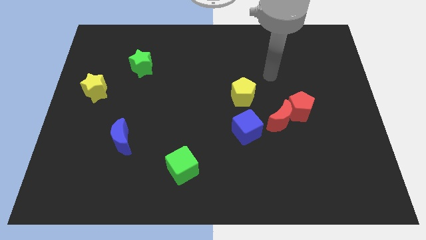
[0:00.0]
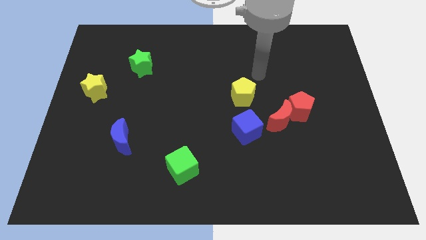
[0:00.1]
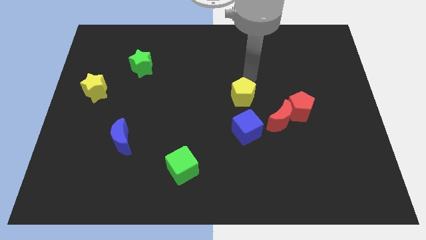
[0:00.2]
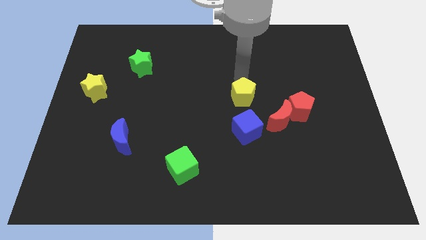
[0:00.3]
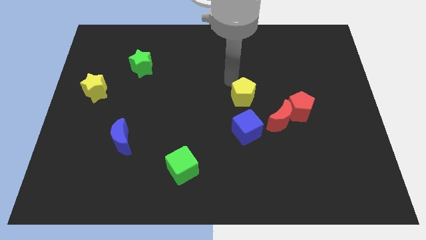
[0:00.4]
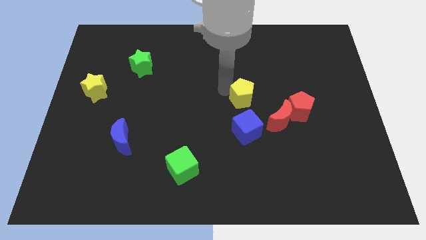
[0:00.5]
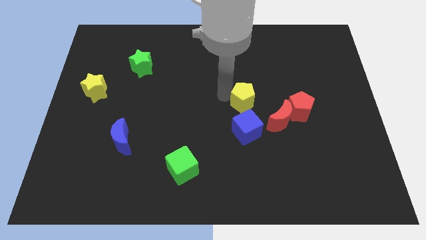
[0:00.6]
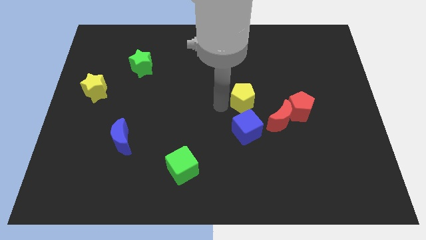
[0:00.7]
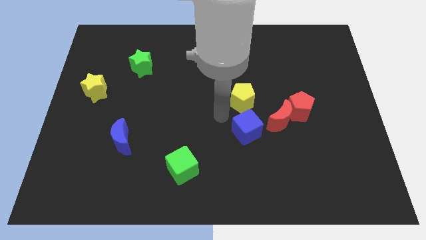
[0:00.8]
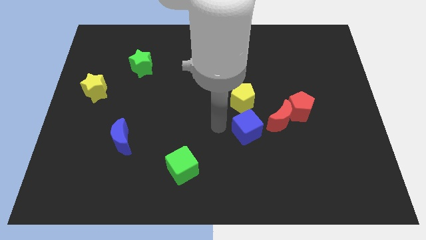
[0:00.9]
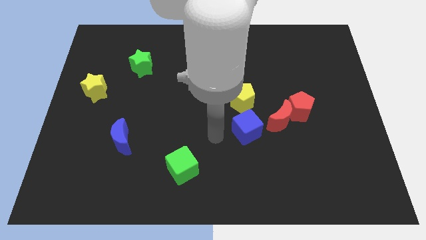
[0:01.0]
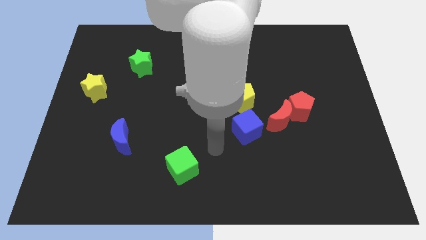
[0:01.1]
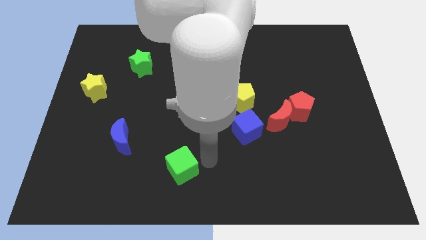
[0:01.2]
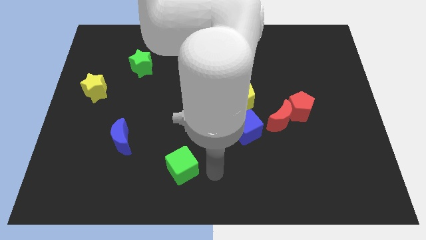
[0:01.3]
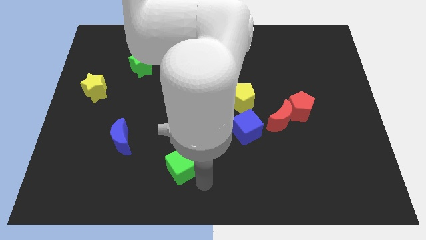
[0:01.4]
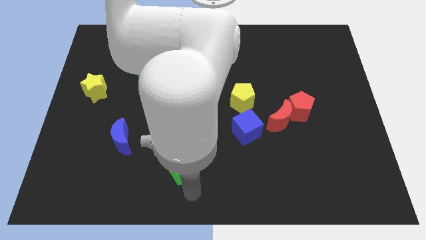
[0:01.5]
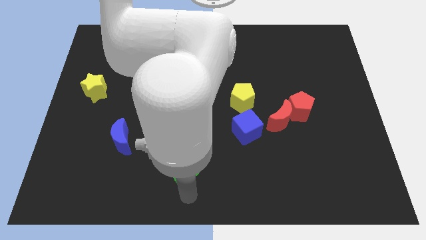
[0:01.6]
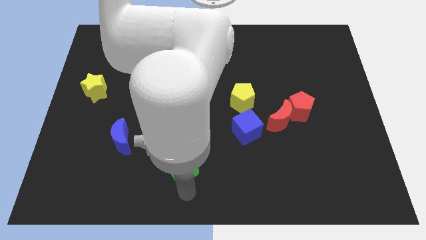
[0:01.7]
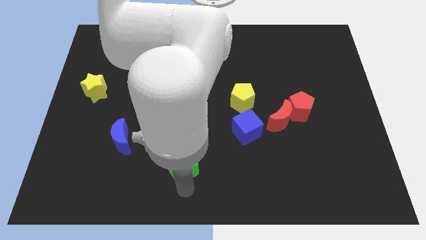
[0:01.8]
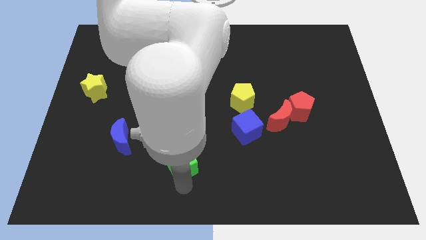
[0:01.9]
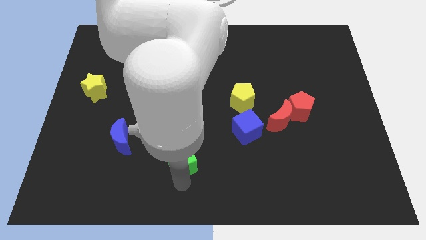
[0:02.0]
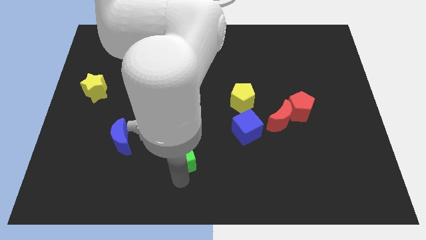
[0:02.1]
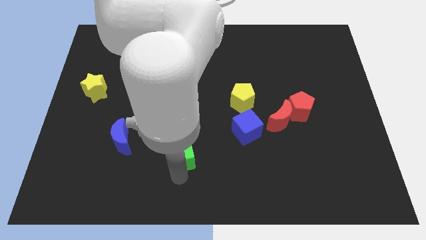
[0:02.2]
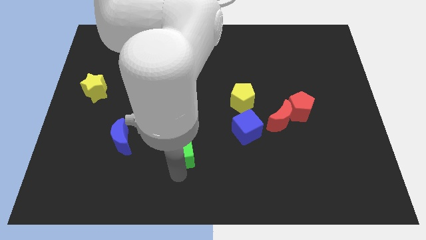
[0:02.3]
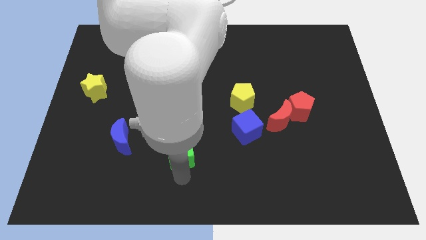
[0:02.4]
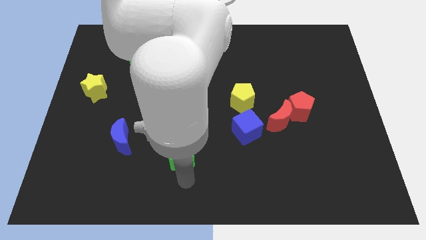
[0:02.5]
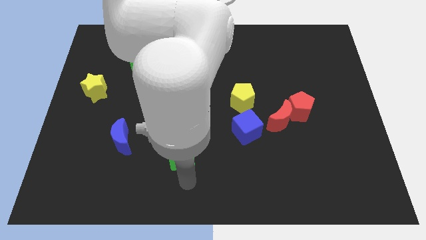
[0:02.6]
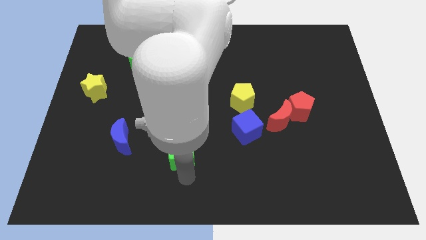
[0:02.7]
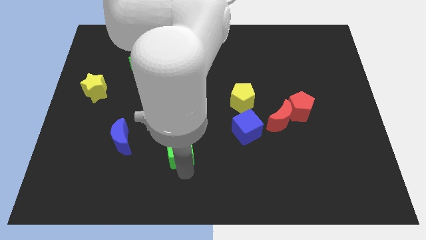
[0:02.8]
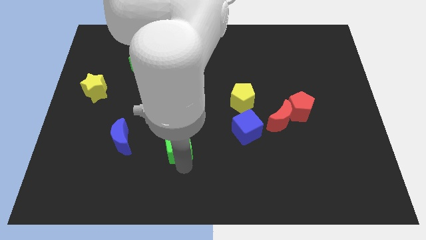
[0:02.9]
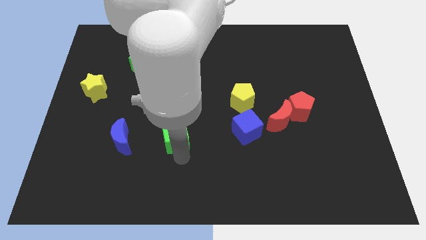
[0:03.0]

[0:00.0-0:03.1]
slightly move the green cube upwards

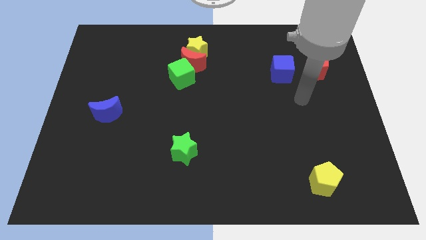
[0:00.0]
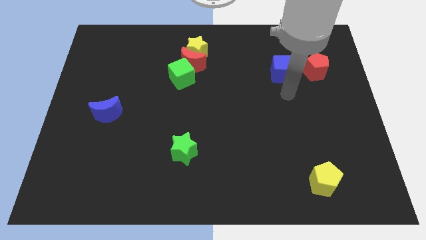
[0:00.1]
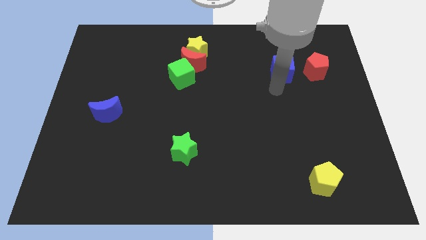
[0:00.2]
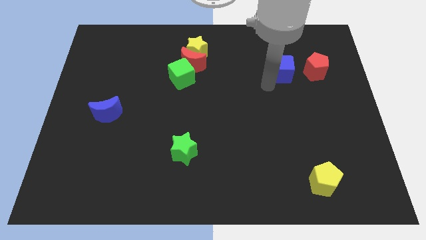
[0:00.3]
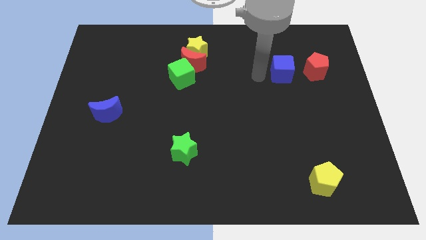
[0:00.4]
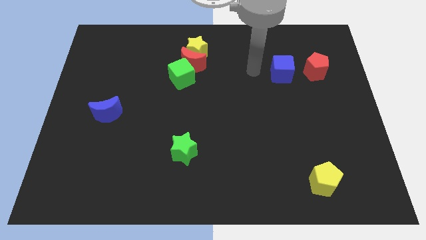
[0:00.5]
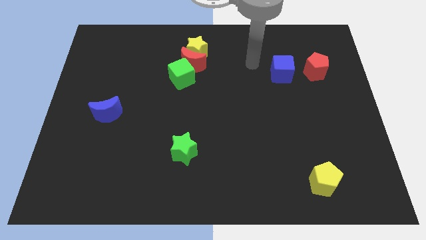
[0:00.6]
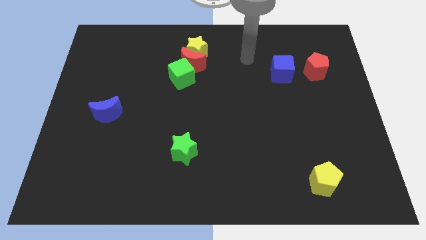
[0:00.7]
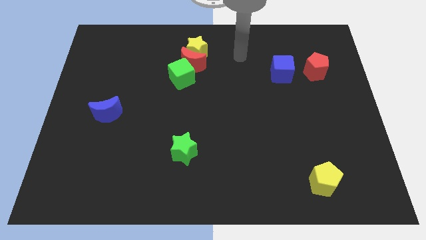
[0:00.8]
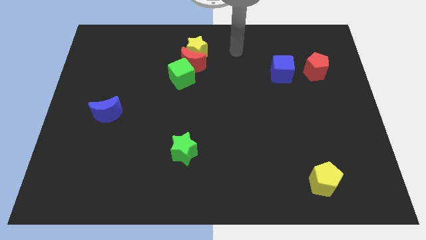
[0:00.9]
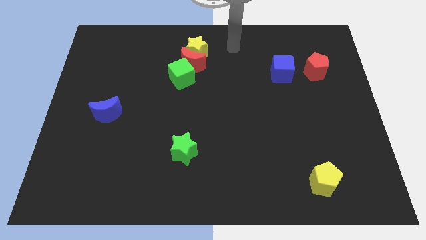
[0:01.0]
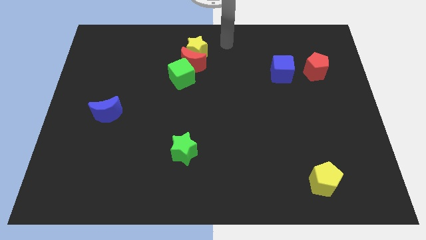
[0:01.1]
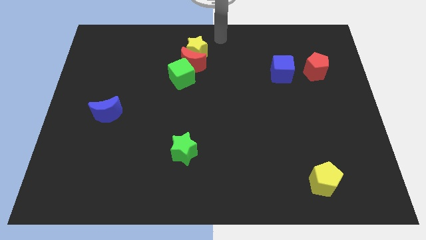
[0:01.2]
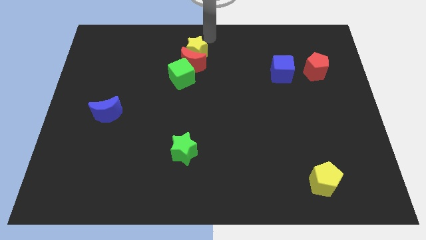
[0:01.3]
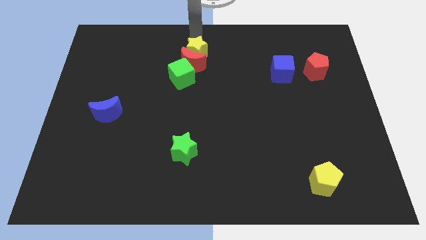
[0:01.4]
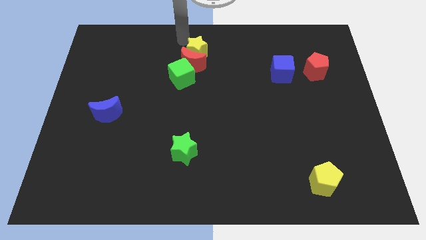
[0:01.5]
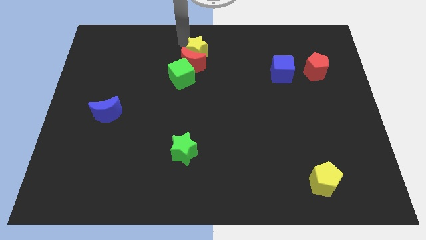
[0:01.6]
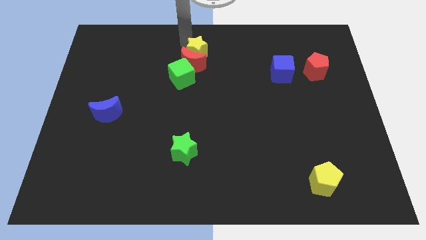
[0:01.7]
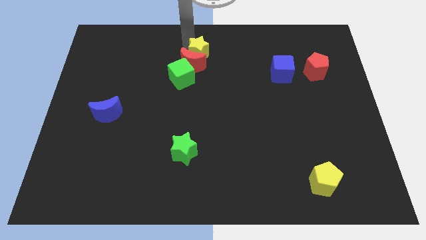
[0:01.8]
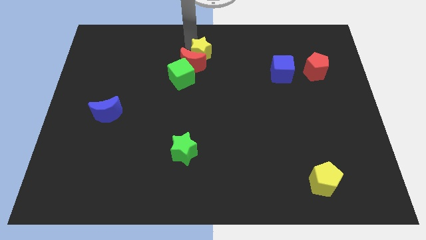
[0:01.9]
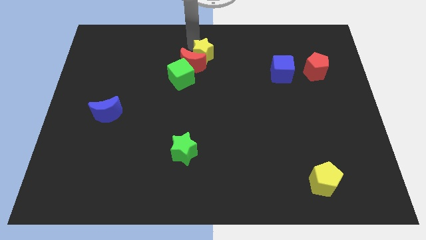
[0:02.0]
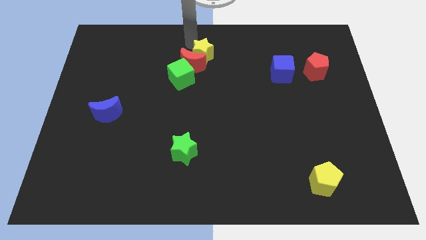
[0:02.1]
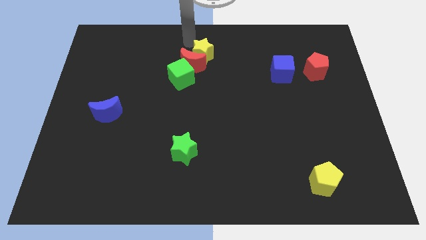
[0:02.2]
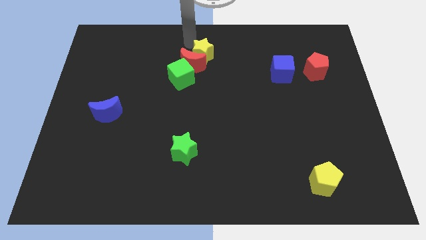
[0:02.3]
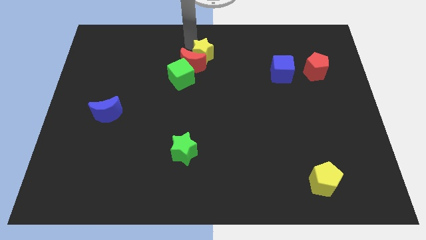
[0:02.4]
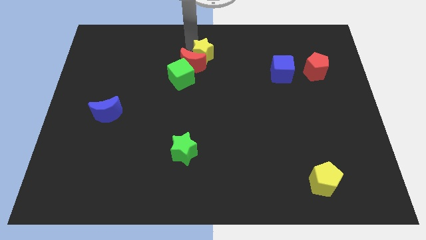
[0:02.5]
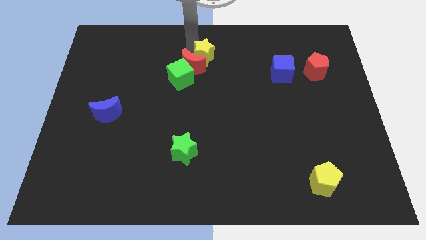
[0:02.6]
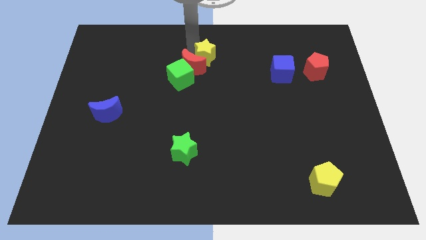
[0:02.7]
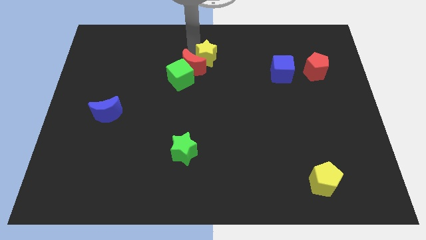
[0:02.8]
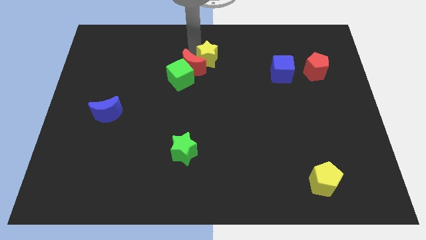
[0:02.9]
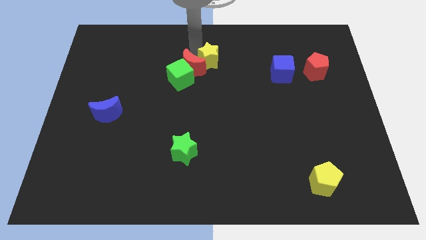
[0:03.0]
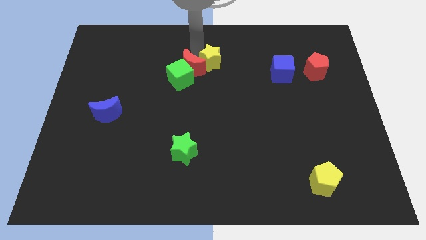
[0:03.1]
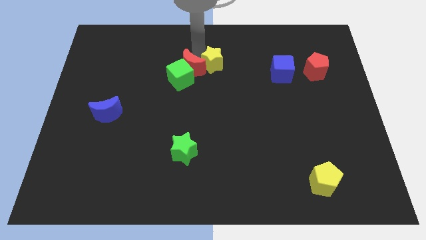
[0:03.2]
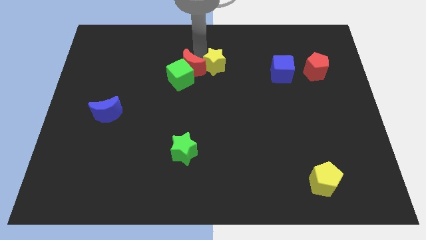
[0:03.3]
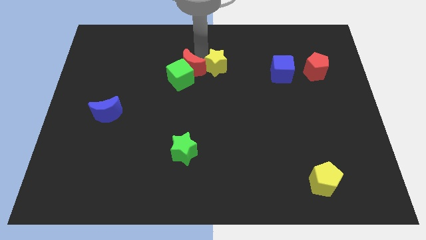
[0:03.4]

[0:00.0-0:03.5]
move the yellow star down and then right slightly

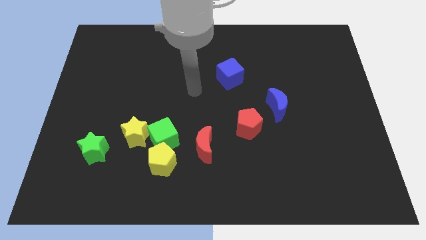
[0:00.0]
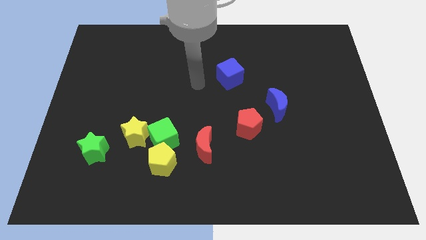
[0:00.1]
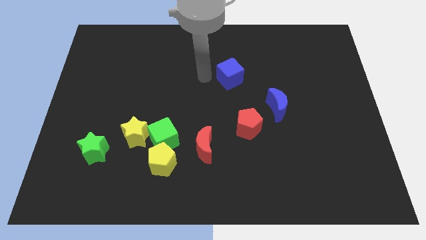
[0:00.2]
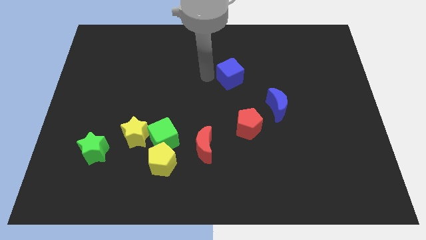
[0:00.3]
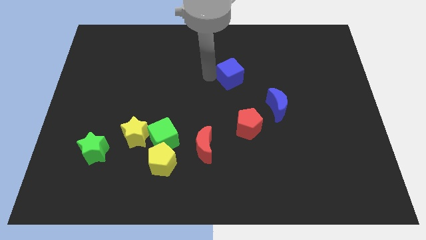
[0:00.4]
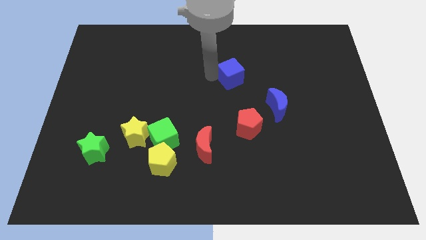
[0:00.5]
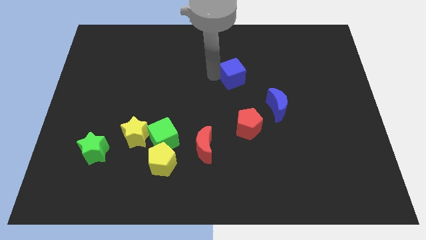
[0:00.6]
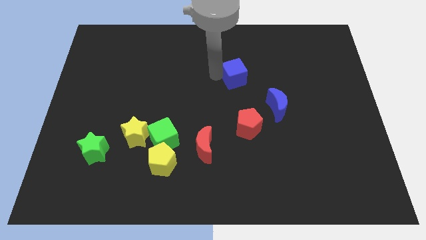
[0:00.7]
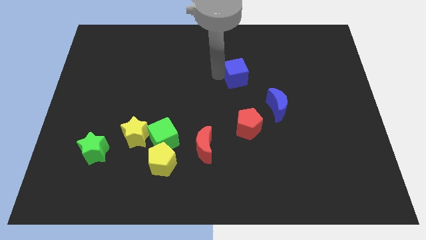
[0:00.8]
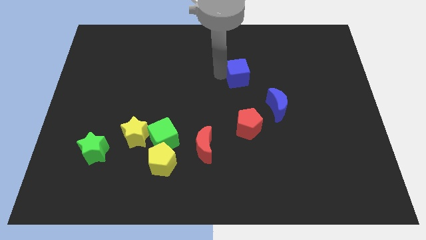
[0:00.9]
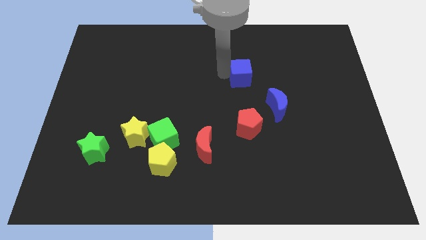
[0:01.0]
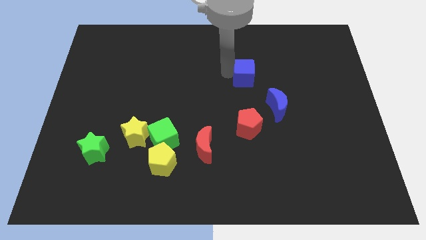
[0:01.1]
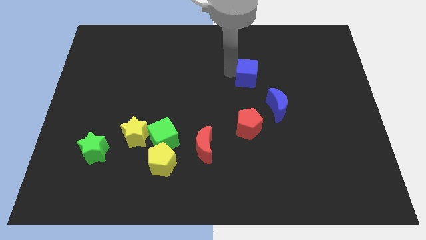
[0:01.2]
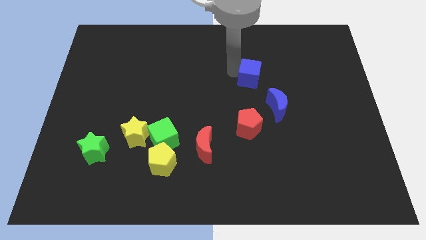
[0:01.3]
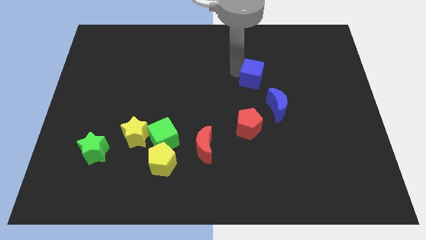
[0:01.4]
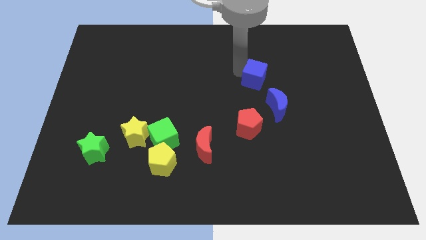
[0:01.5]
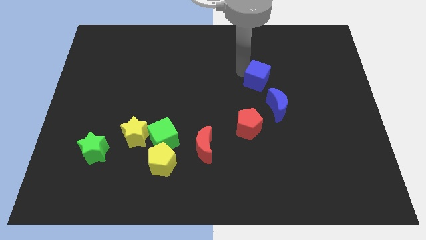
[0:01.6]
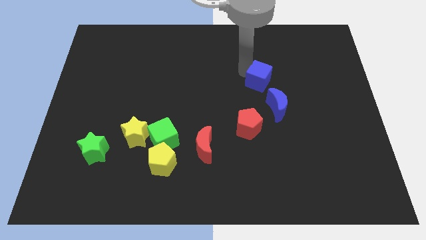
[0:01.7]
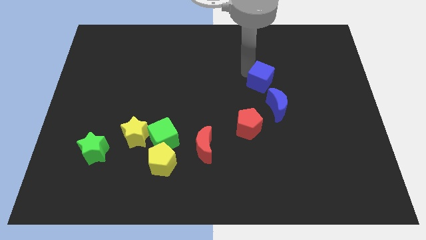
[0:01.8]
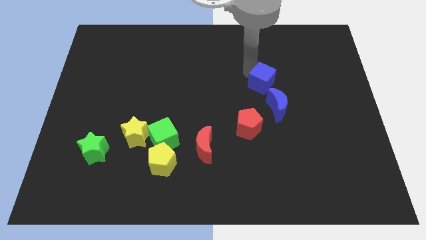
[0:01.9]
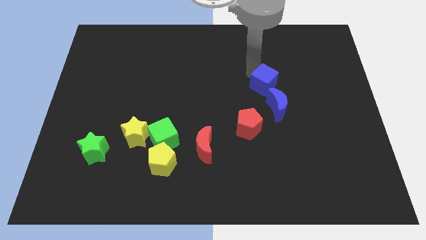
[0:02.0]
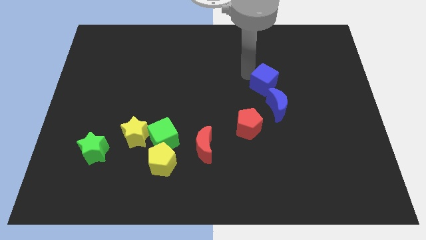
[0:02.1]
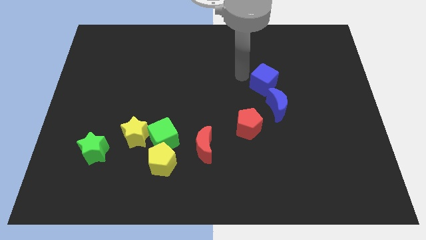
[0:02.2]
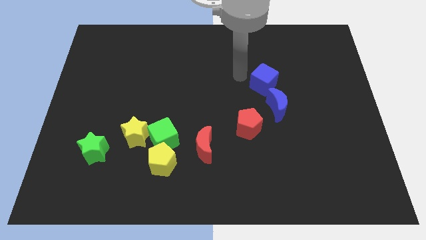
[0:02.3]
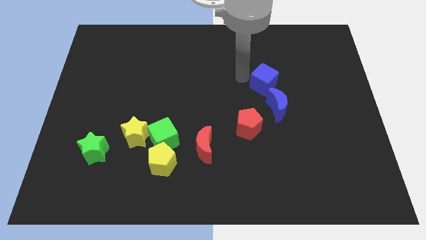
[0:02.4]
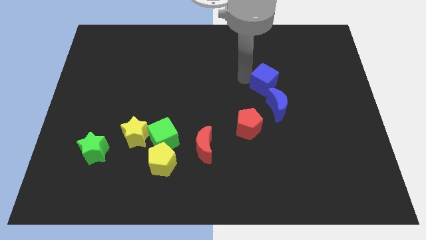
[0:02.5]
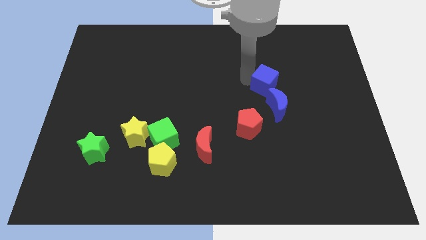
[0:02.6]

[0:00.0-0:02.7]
move the blue cube a bit down and to the right
